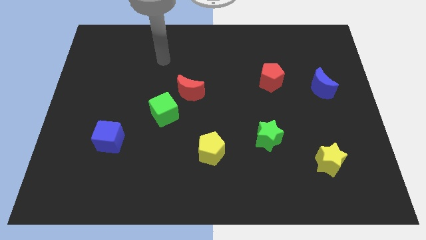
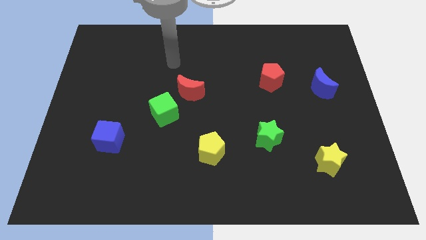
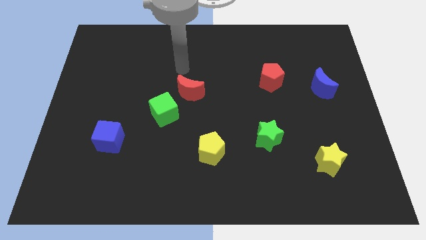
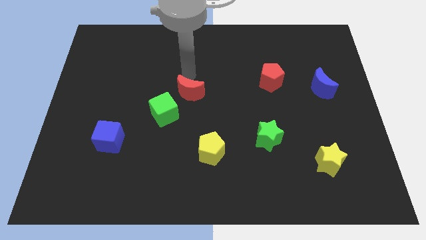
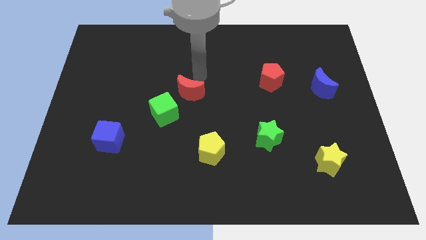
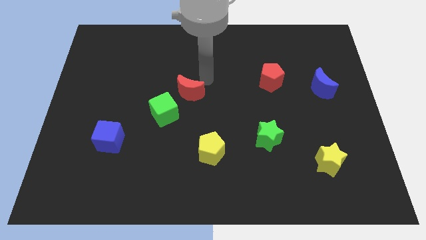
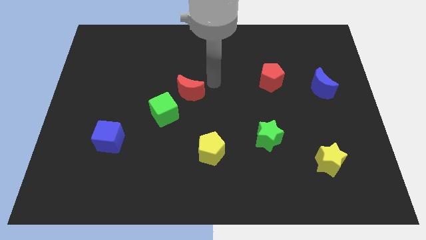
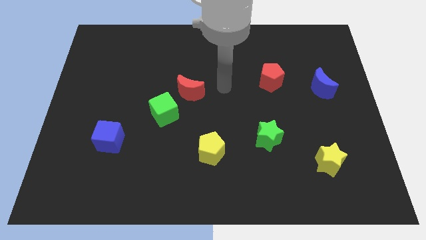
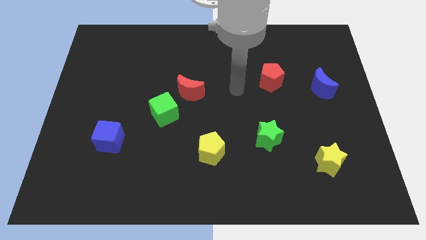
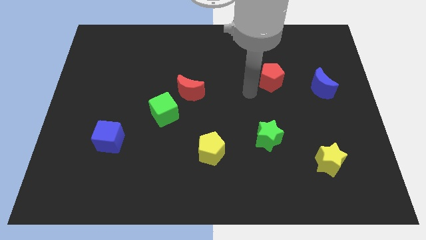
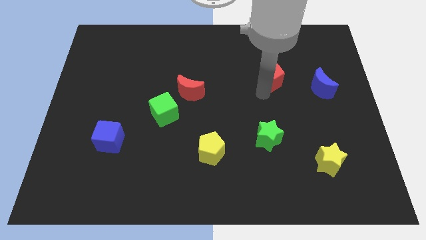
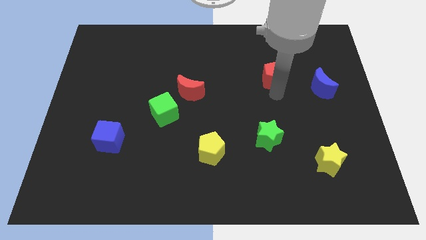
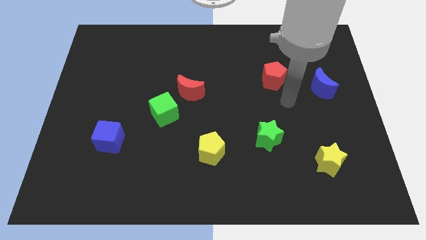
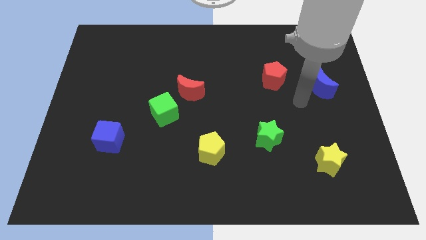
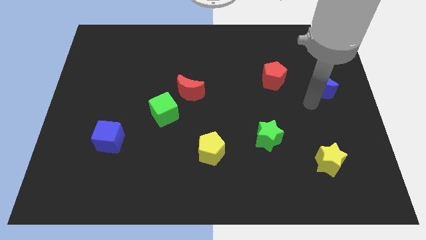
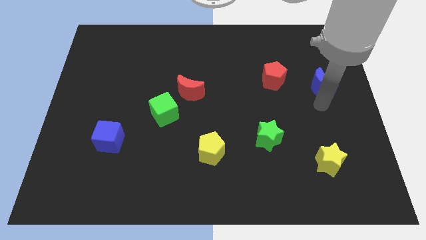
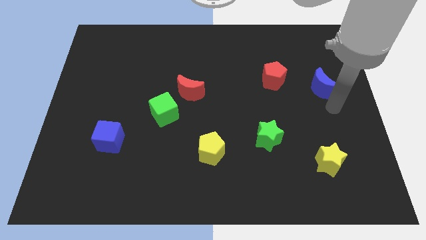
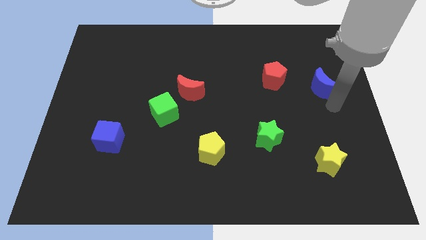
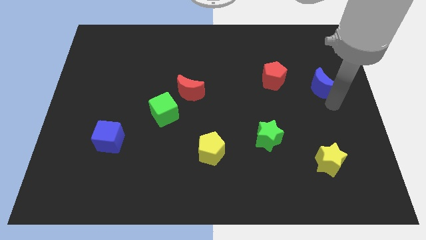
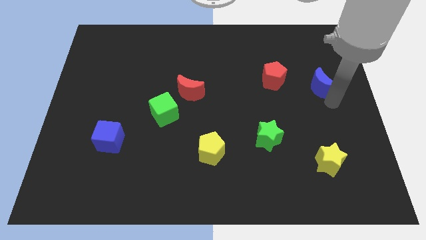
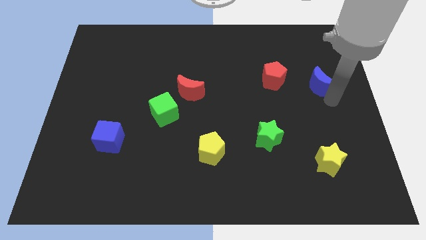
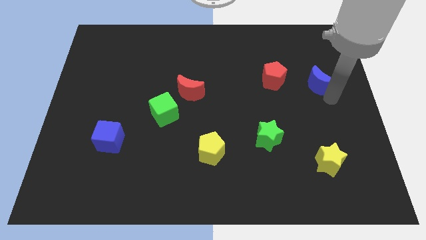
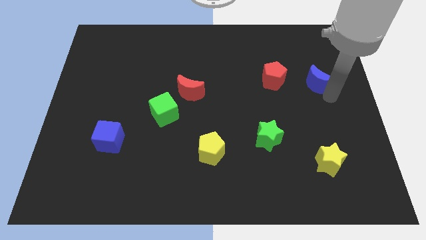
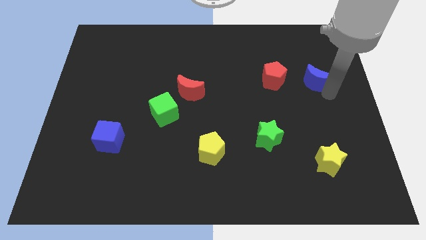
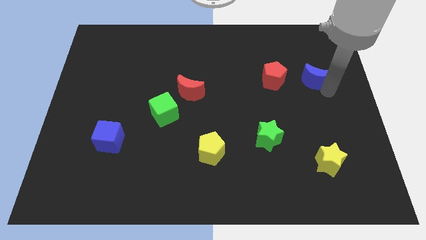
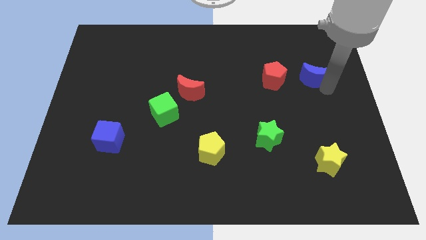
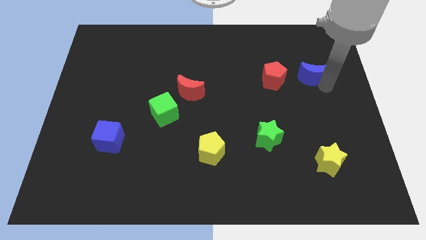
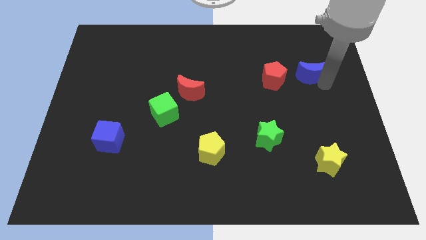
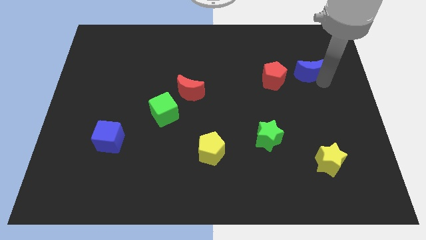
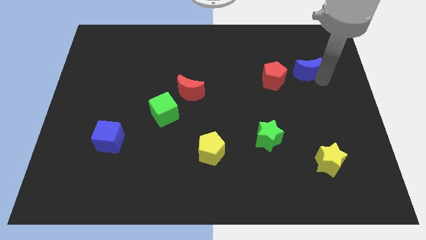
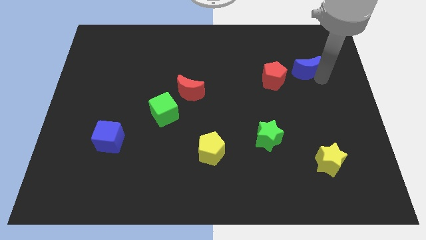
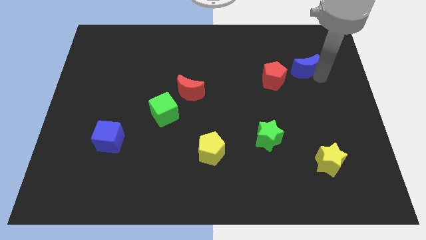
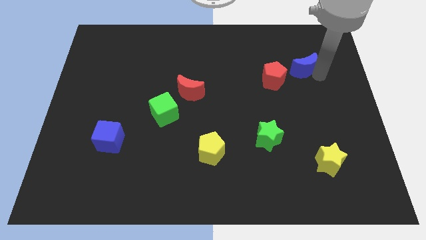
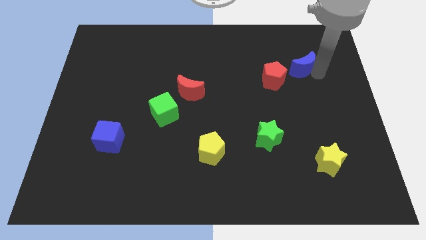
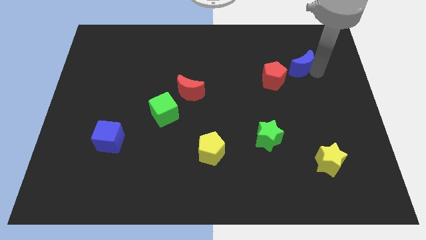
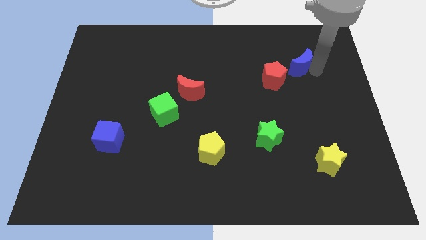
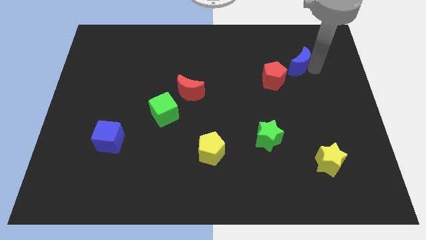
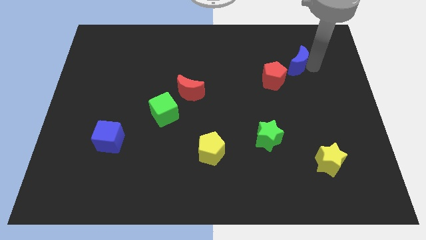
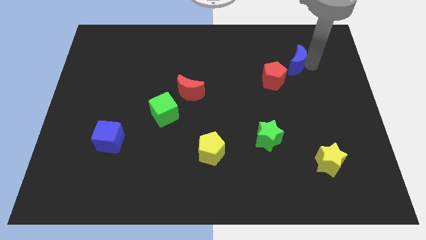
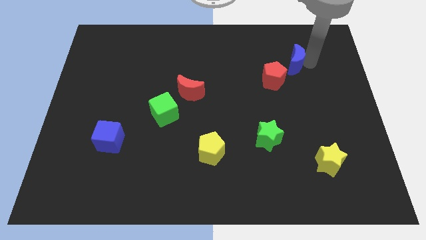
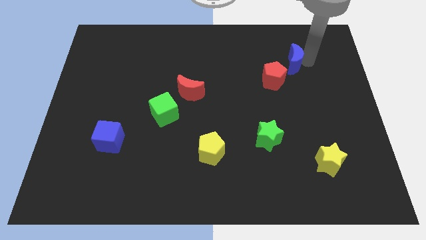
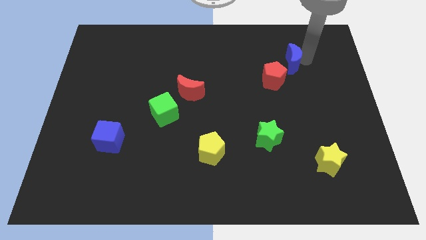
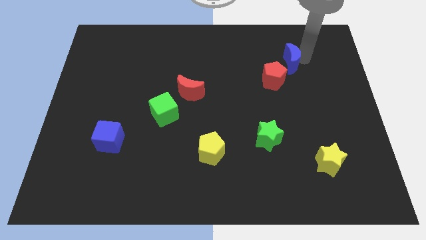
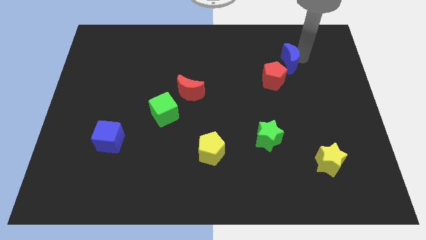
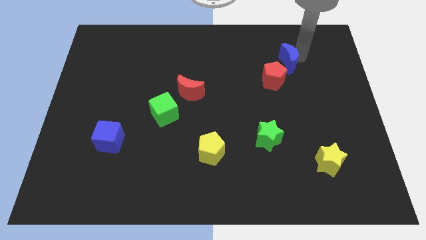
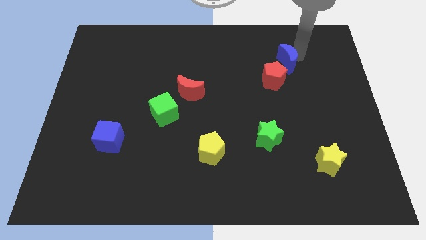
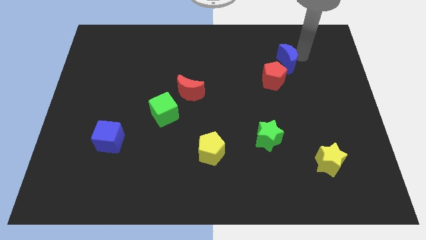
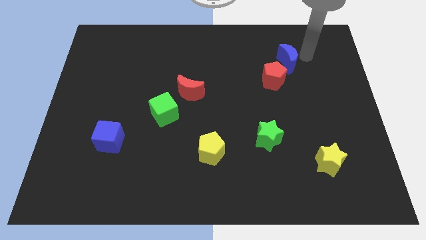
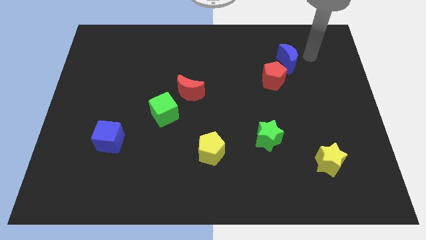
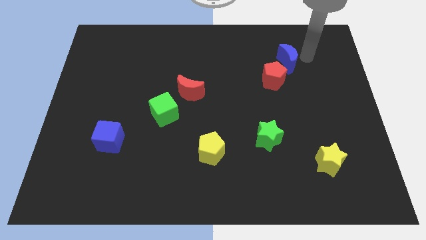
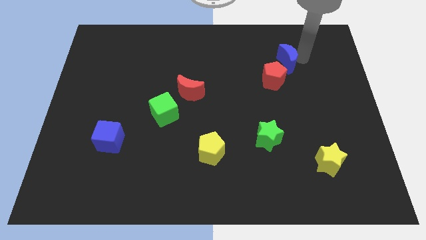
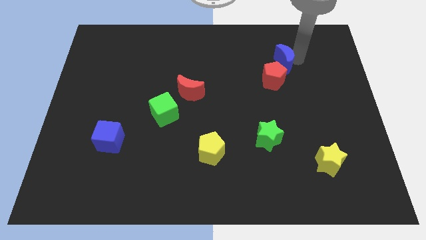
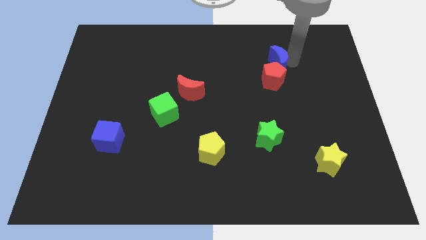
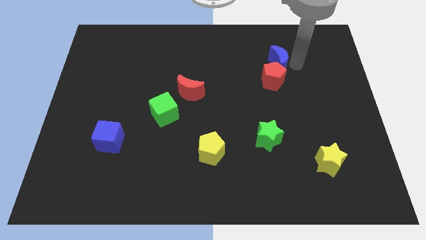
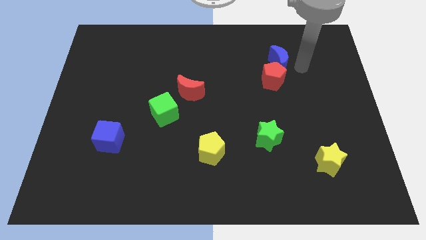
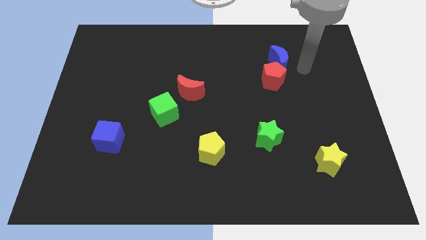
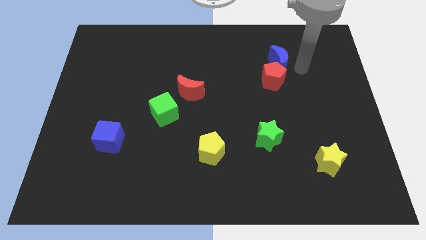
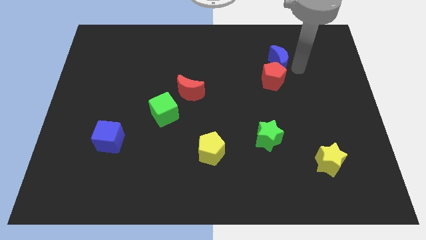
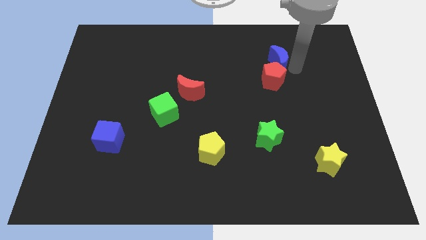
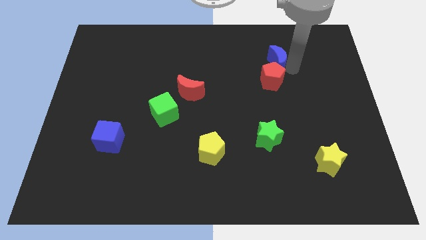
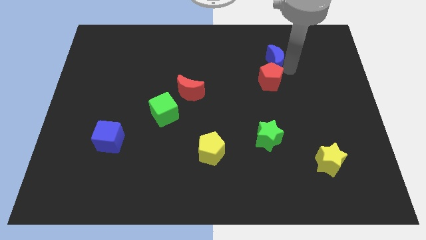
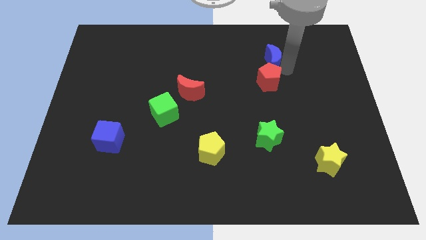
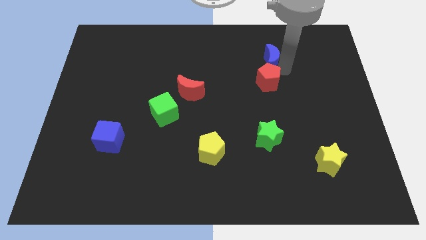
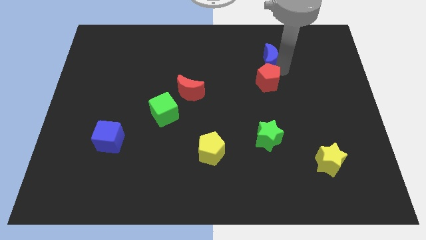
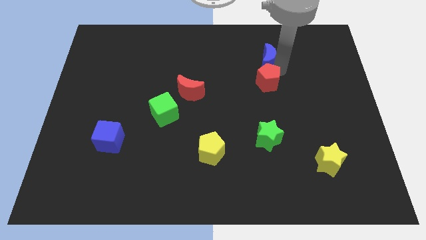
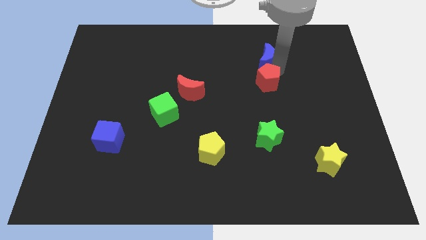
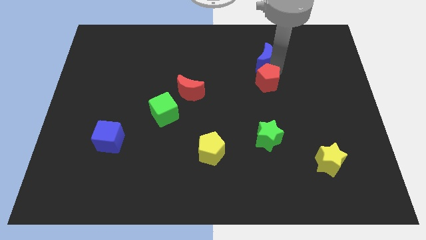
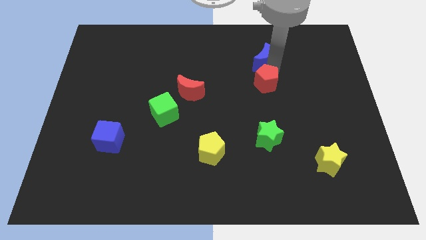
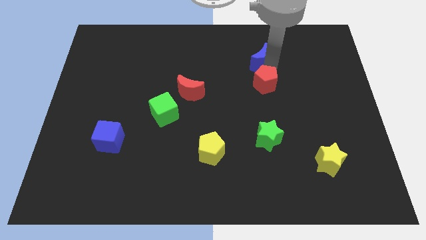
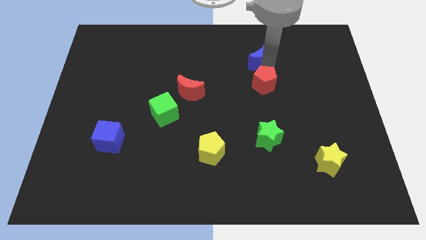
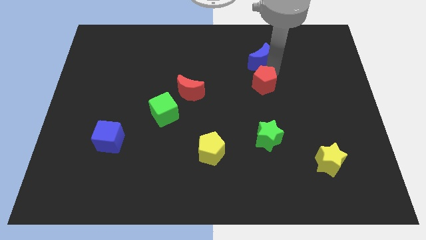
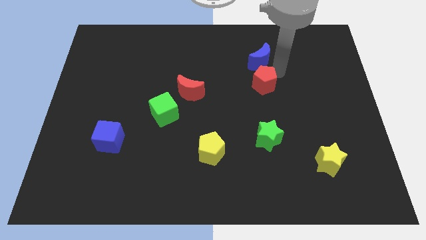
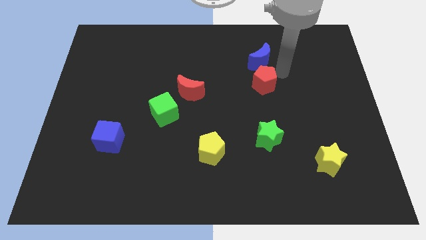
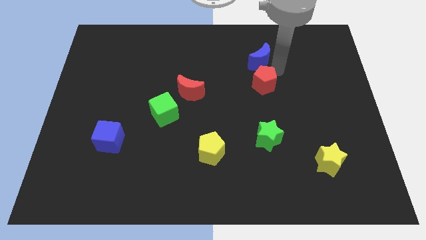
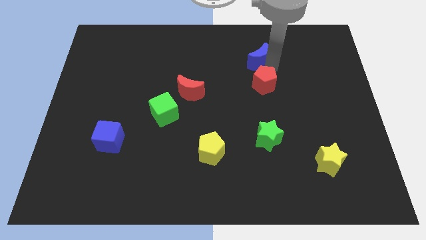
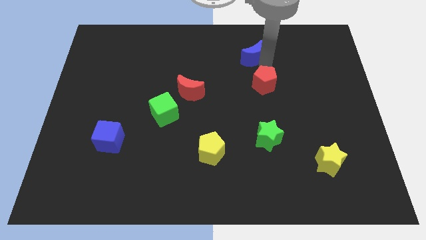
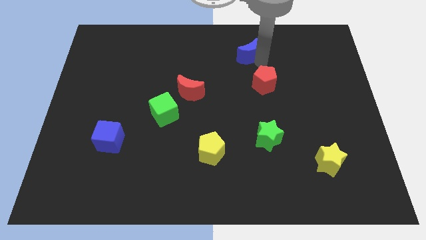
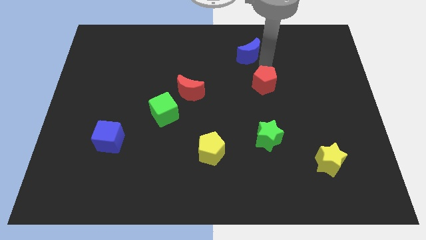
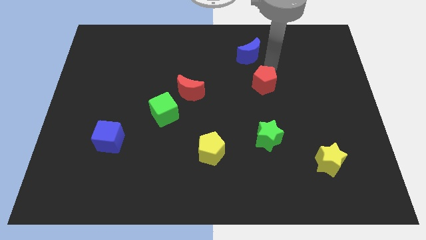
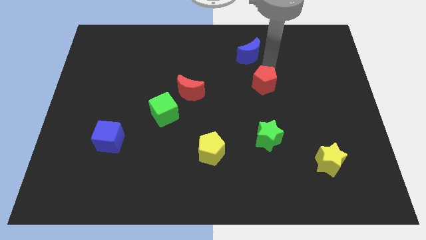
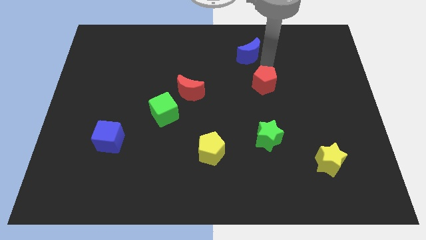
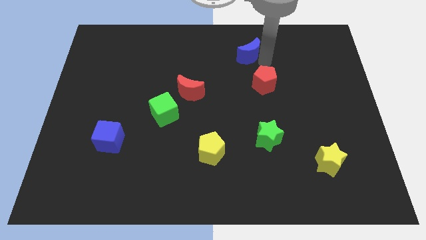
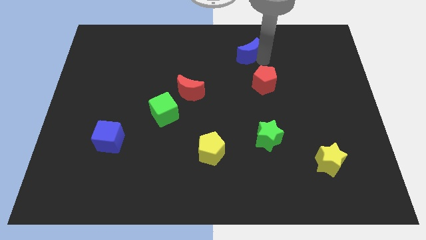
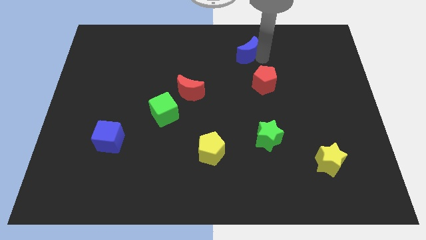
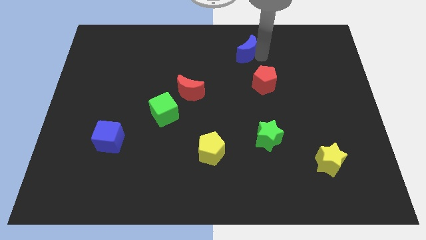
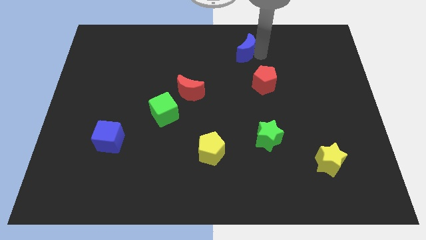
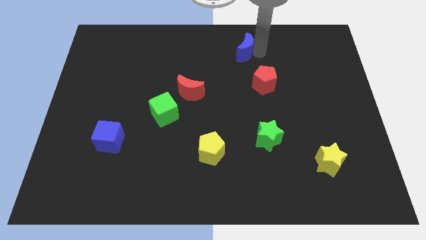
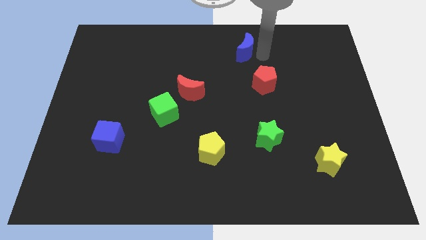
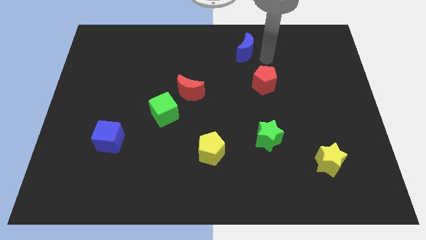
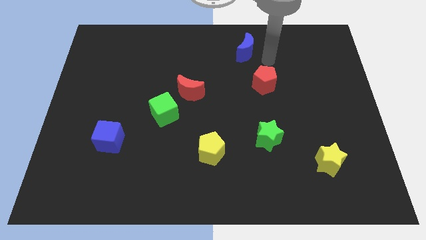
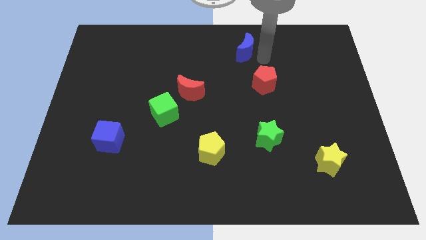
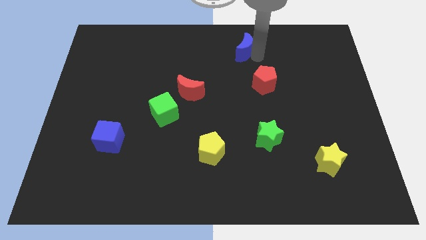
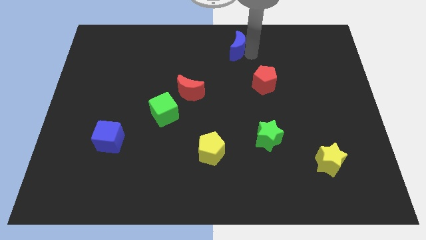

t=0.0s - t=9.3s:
put the blue moon to the top side
